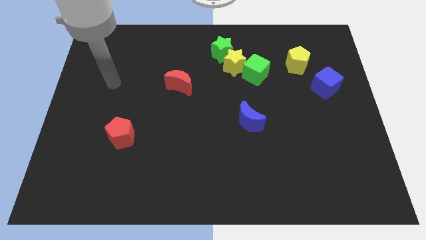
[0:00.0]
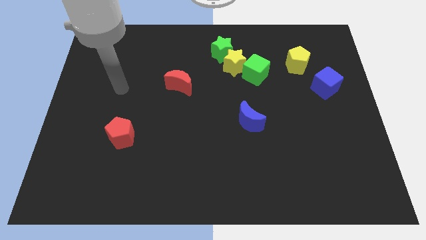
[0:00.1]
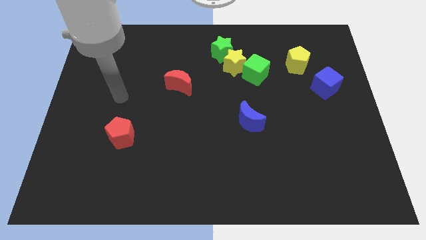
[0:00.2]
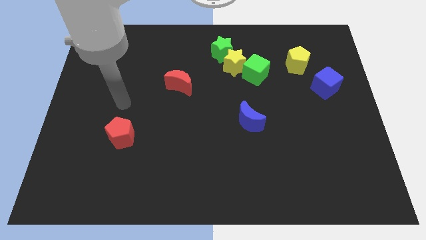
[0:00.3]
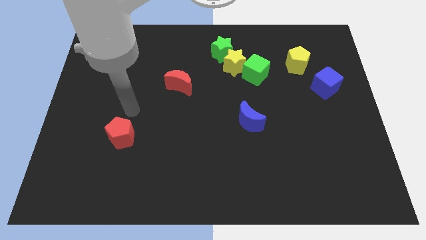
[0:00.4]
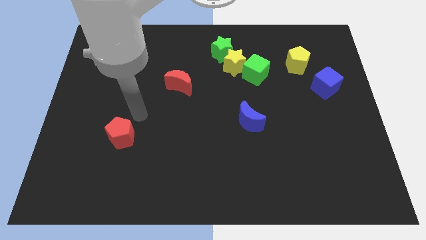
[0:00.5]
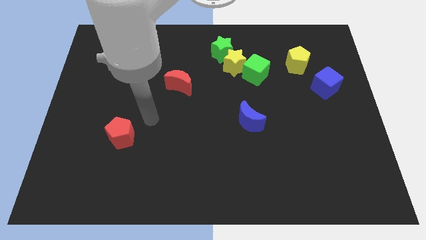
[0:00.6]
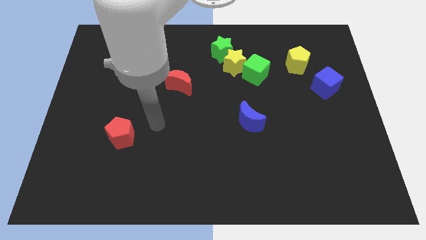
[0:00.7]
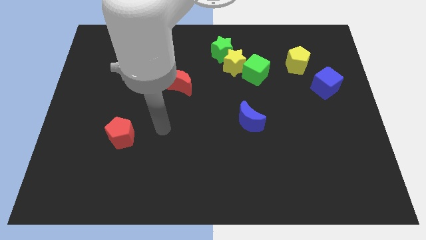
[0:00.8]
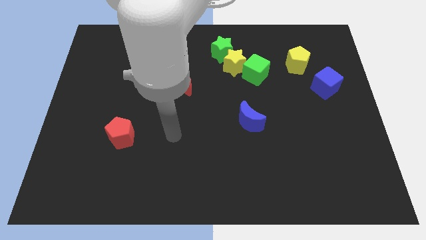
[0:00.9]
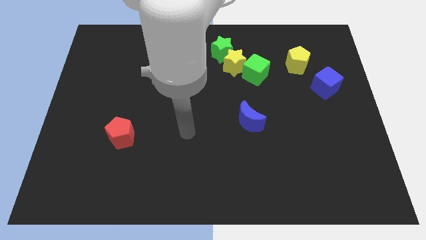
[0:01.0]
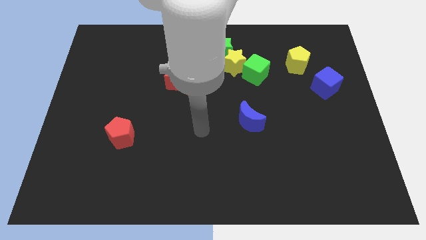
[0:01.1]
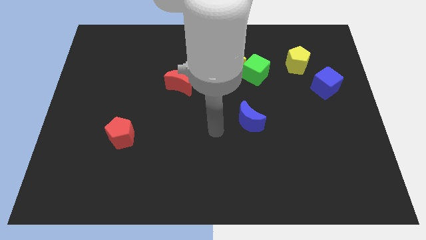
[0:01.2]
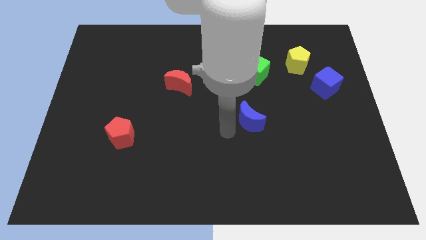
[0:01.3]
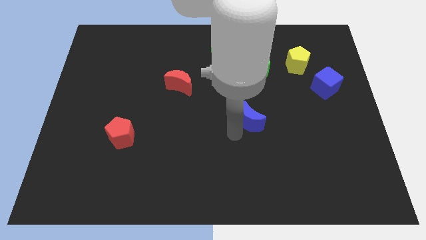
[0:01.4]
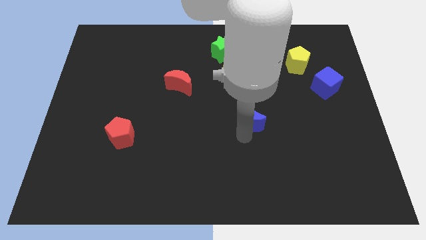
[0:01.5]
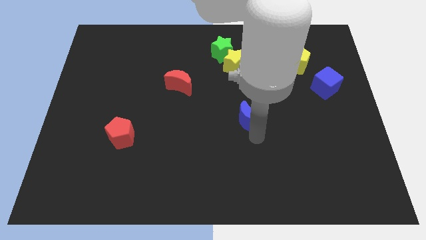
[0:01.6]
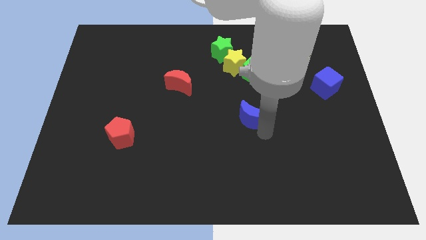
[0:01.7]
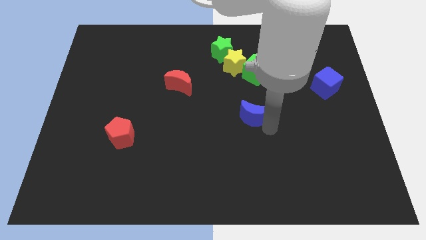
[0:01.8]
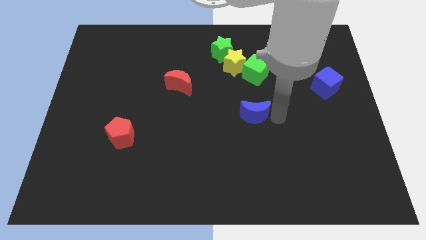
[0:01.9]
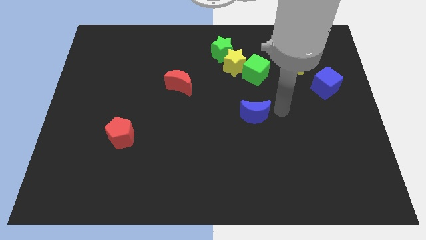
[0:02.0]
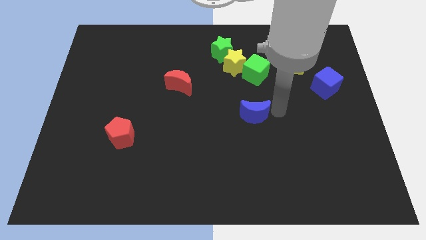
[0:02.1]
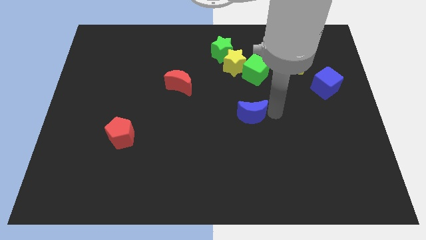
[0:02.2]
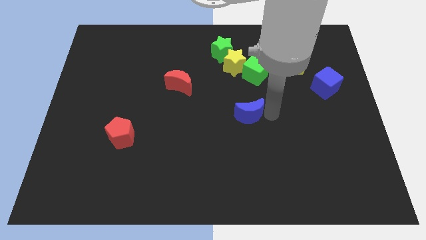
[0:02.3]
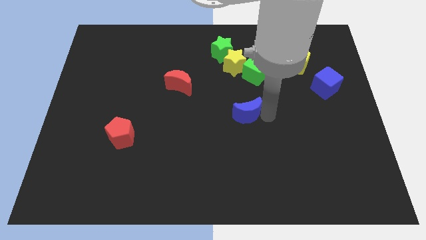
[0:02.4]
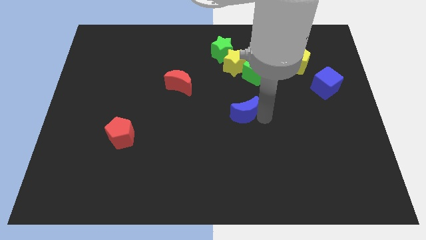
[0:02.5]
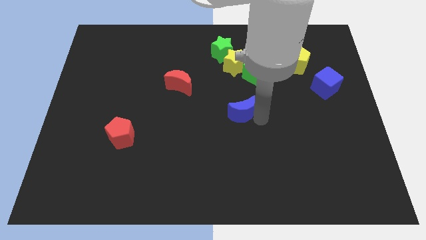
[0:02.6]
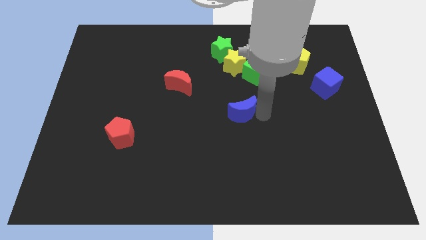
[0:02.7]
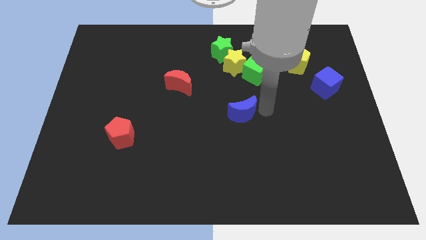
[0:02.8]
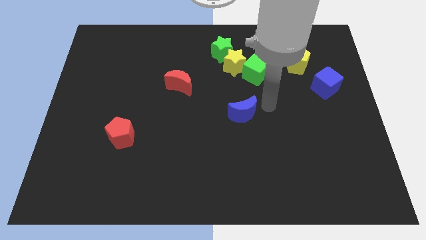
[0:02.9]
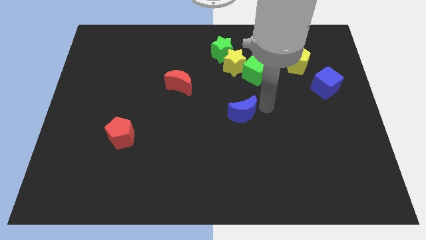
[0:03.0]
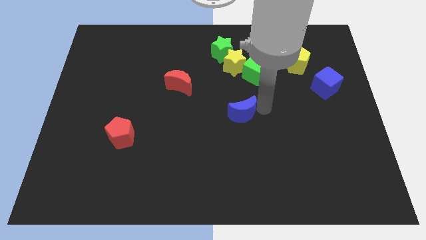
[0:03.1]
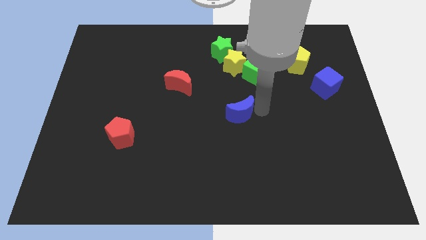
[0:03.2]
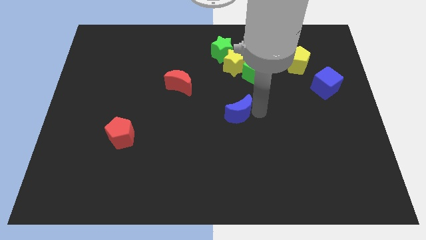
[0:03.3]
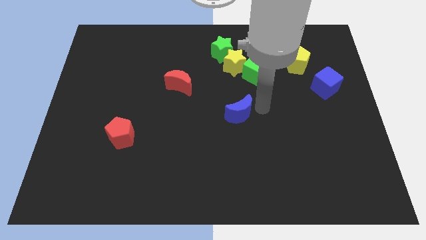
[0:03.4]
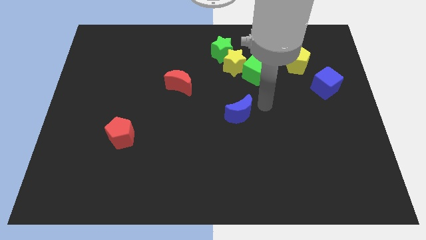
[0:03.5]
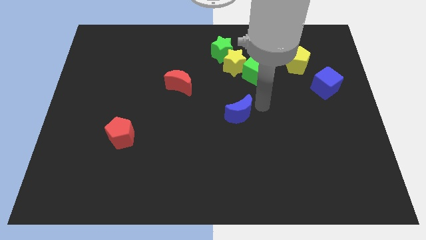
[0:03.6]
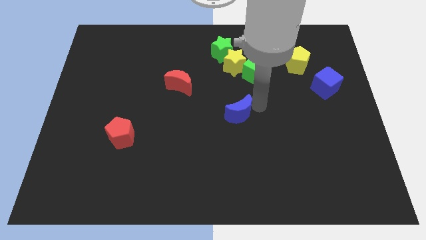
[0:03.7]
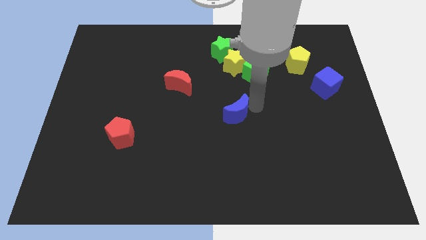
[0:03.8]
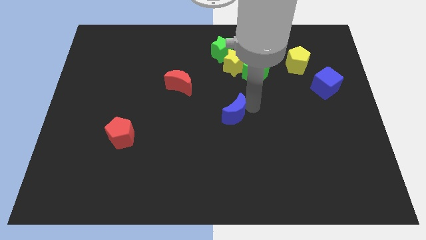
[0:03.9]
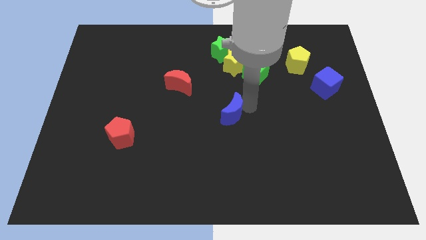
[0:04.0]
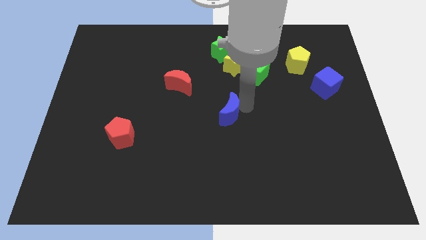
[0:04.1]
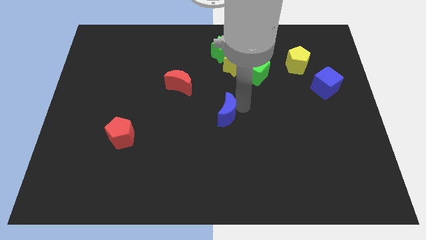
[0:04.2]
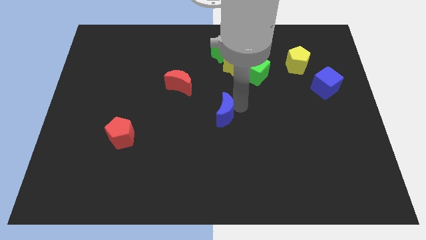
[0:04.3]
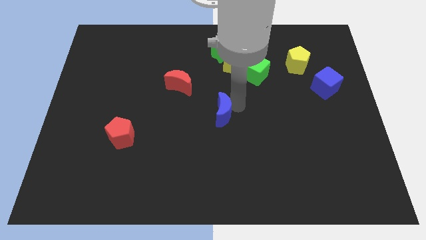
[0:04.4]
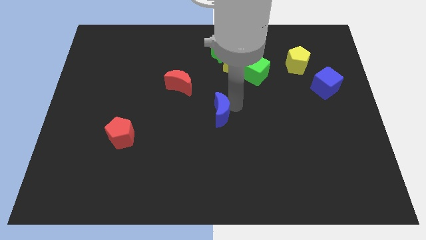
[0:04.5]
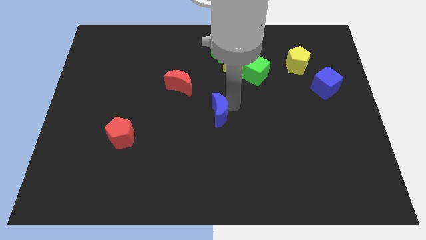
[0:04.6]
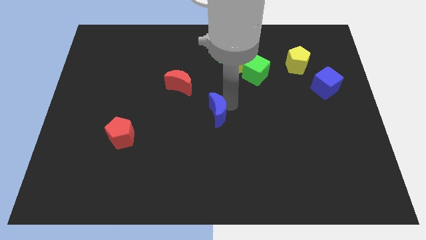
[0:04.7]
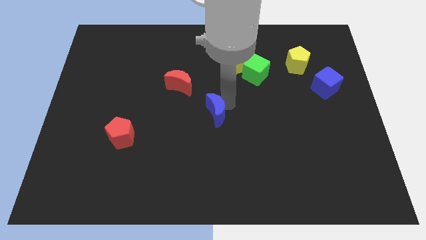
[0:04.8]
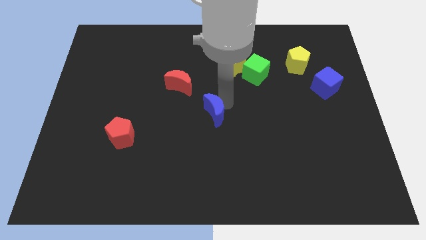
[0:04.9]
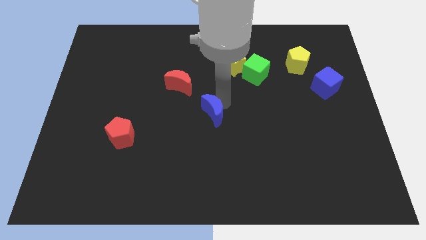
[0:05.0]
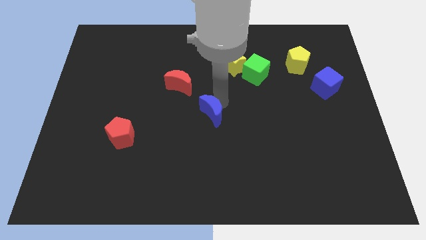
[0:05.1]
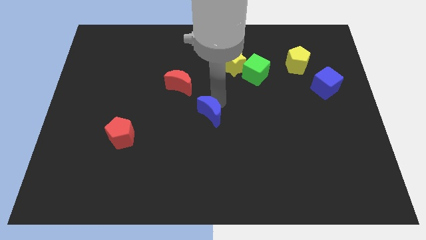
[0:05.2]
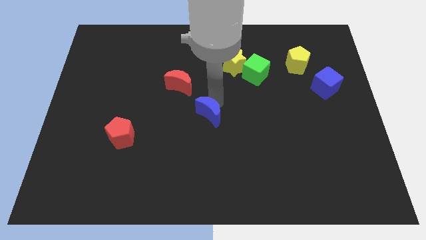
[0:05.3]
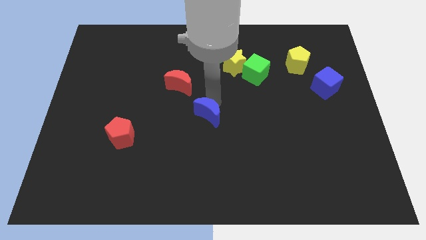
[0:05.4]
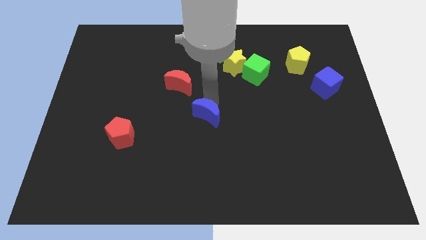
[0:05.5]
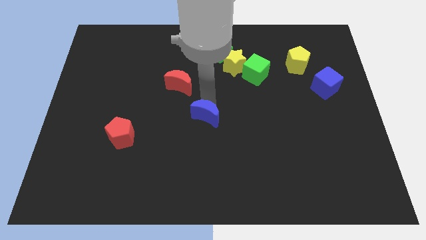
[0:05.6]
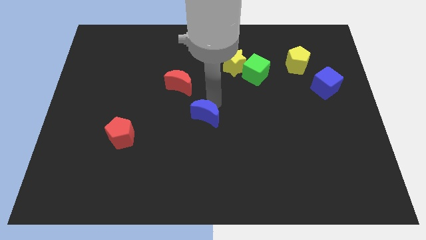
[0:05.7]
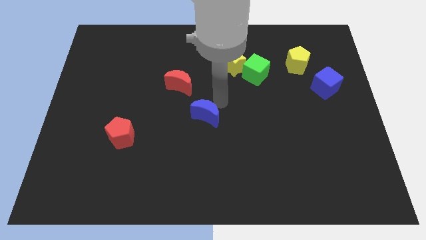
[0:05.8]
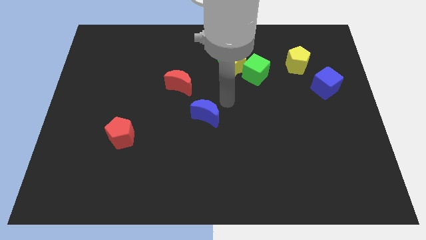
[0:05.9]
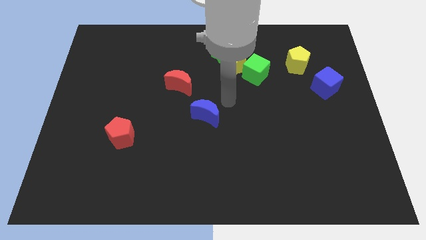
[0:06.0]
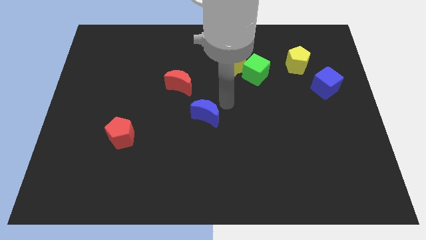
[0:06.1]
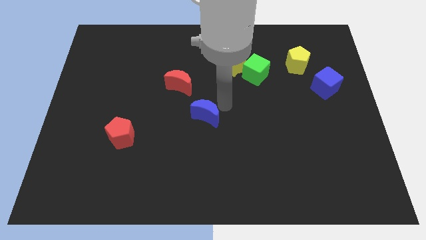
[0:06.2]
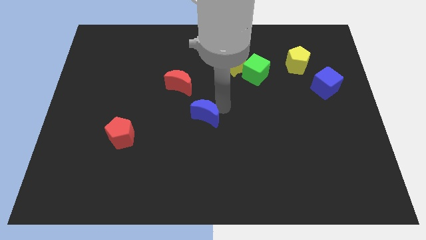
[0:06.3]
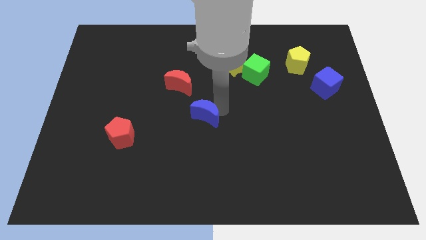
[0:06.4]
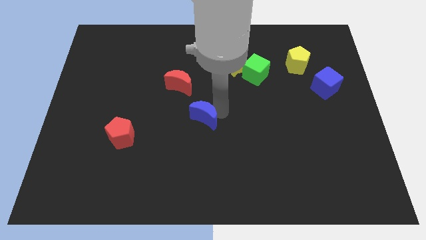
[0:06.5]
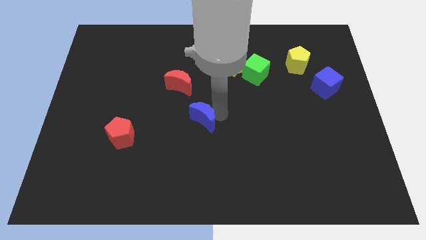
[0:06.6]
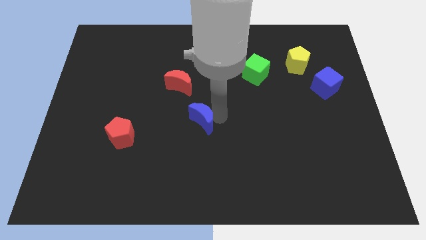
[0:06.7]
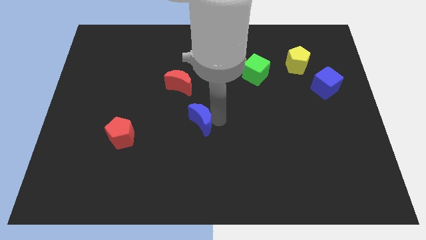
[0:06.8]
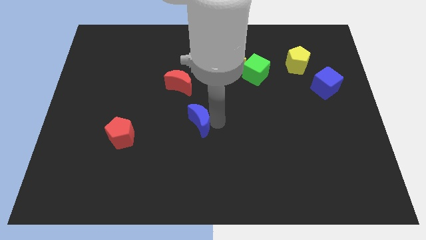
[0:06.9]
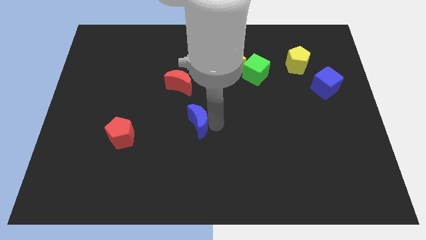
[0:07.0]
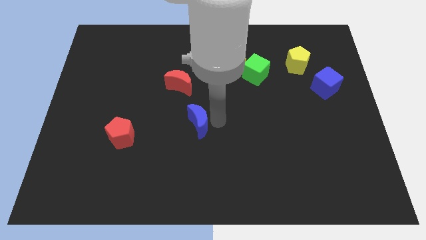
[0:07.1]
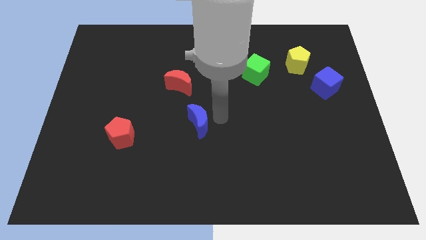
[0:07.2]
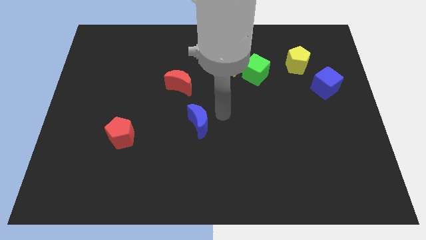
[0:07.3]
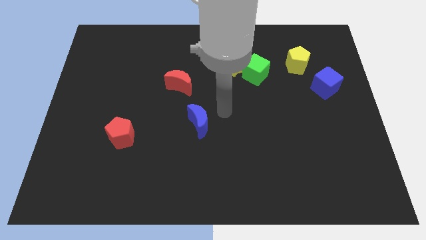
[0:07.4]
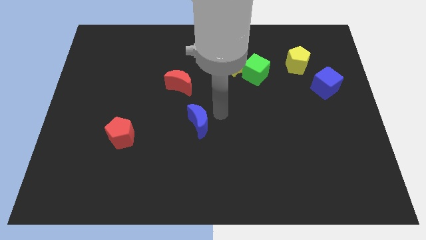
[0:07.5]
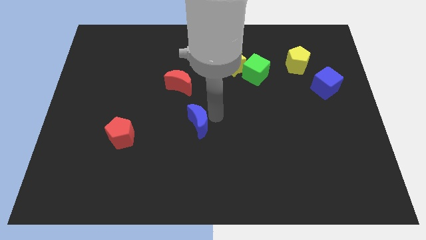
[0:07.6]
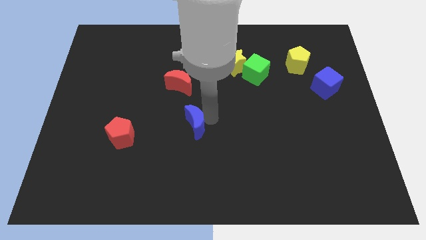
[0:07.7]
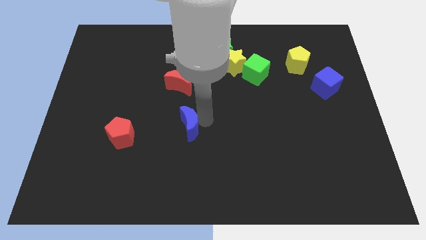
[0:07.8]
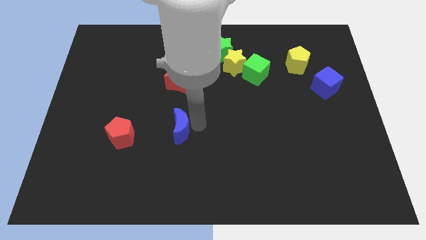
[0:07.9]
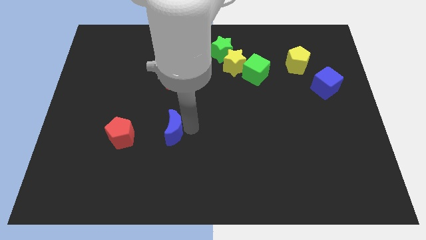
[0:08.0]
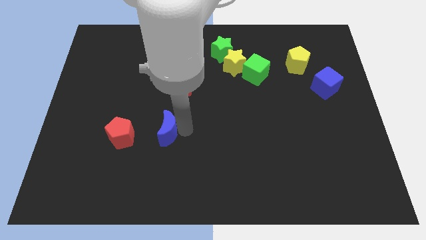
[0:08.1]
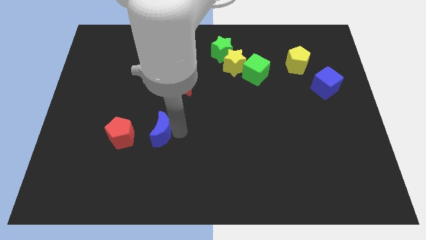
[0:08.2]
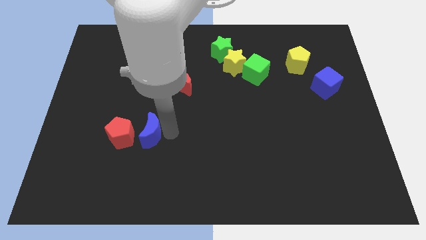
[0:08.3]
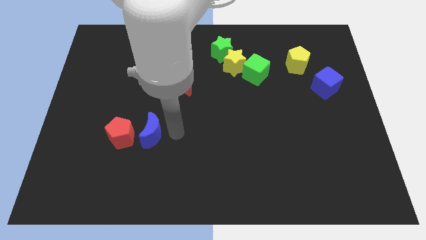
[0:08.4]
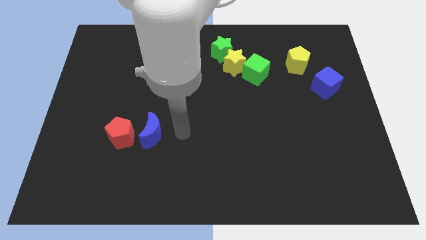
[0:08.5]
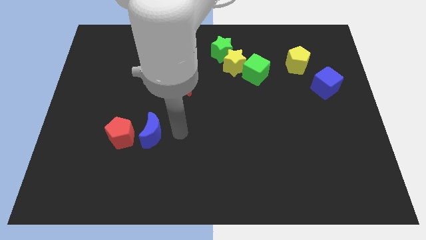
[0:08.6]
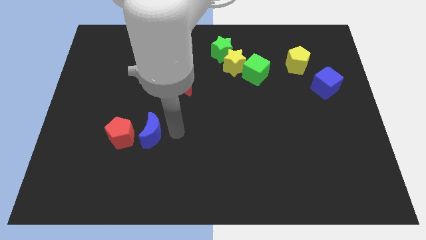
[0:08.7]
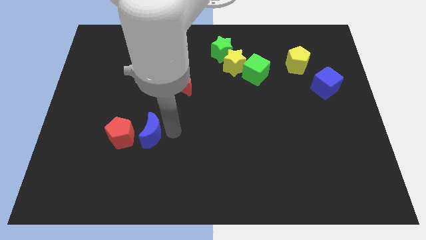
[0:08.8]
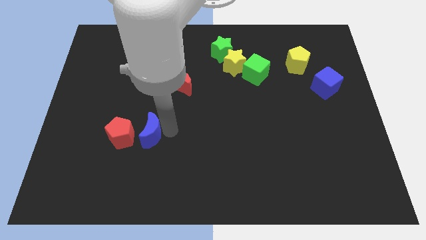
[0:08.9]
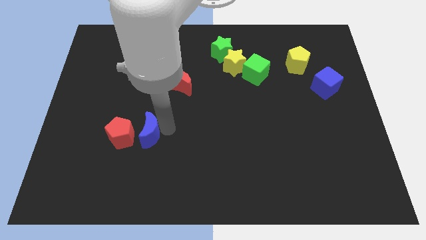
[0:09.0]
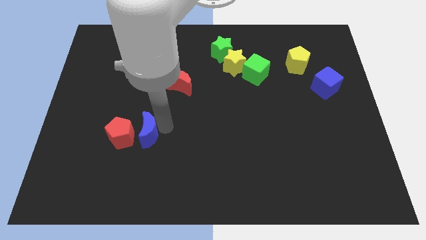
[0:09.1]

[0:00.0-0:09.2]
push the blue moon close to the red pentagon
